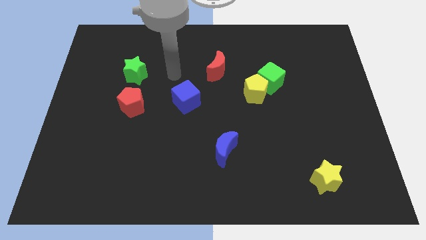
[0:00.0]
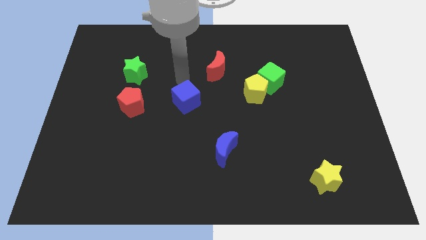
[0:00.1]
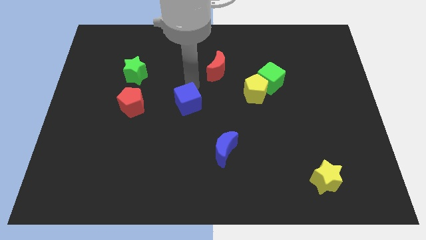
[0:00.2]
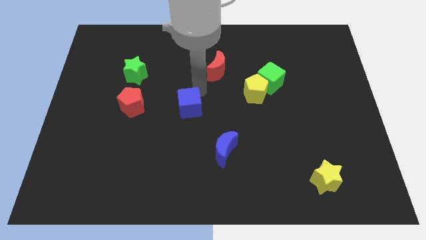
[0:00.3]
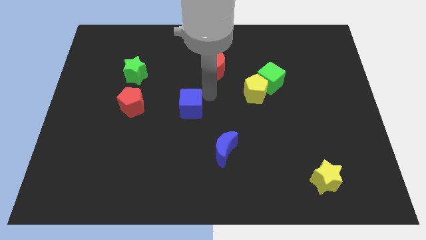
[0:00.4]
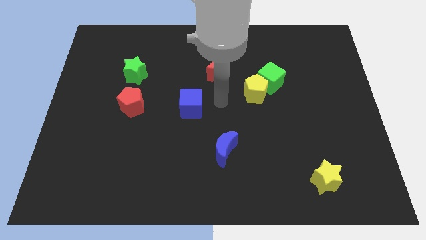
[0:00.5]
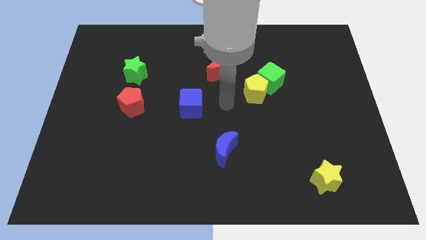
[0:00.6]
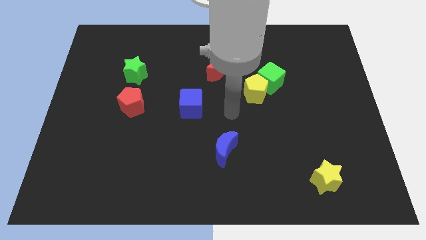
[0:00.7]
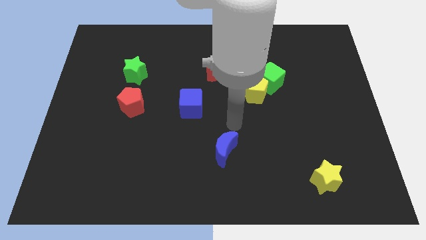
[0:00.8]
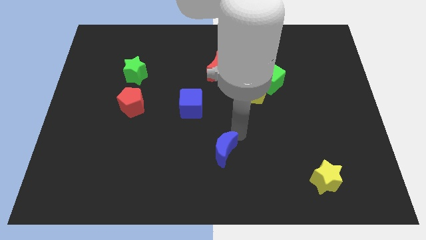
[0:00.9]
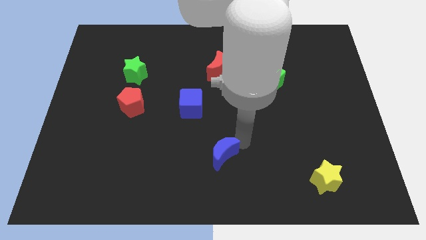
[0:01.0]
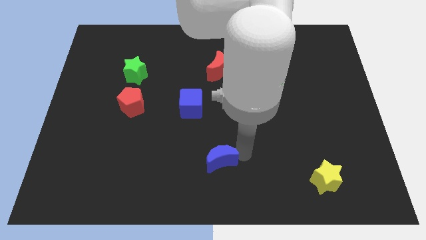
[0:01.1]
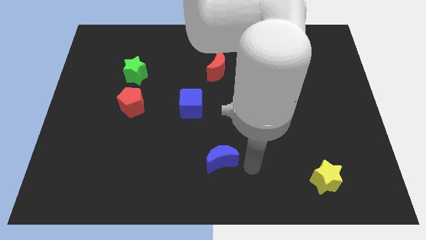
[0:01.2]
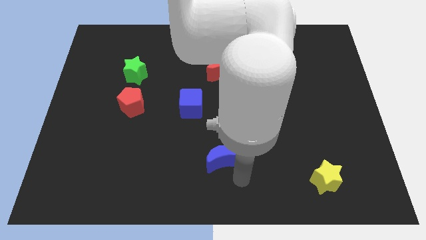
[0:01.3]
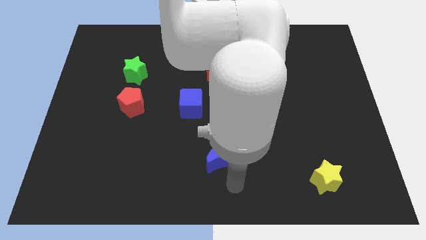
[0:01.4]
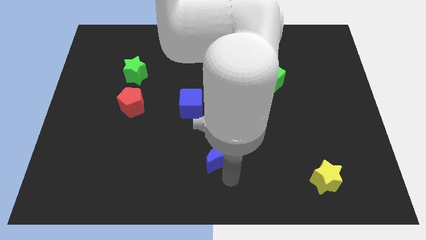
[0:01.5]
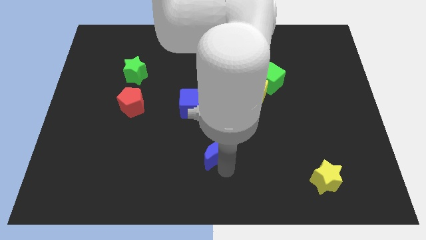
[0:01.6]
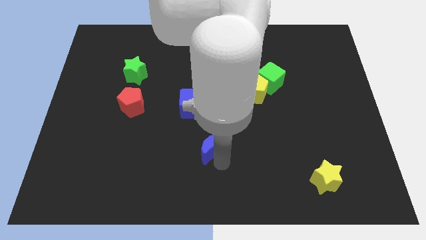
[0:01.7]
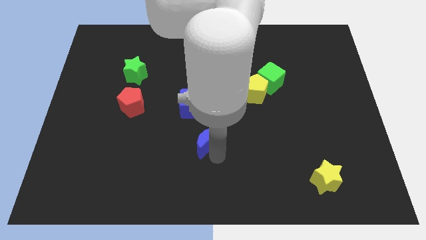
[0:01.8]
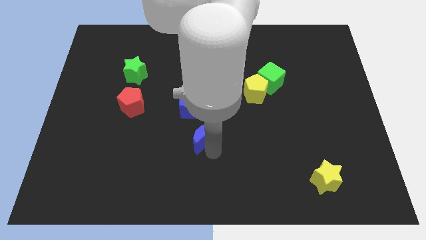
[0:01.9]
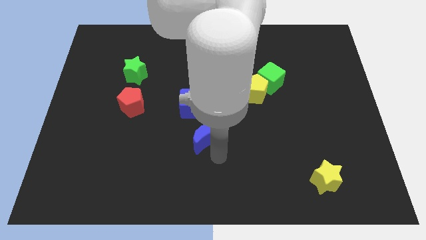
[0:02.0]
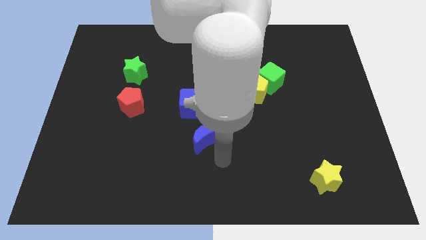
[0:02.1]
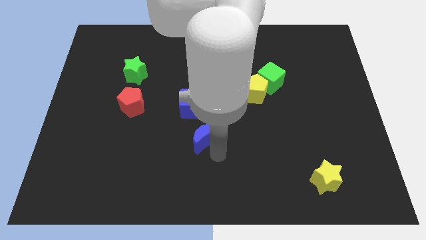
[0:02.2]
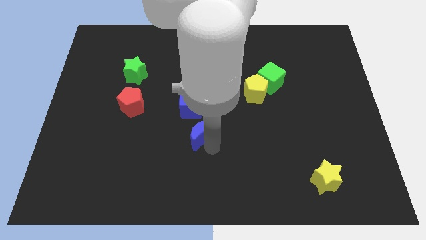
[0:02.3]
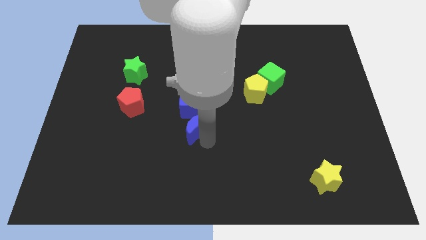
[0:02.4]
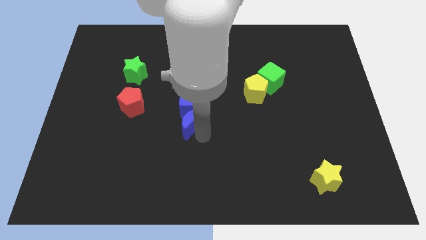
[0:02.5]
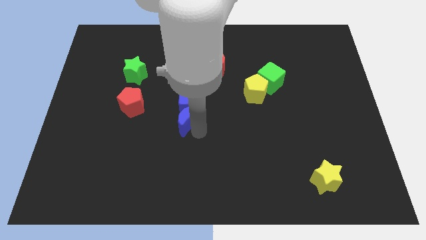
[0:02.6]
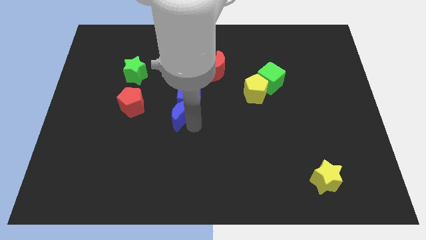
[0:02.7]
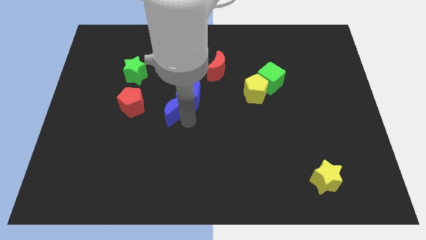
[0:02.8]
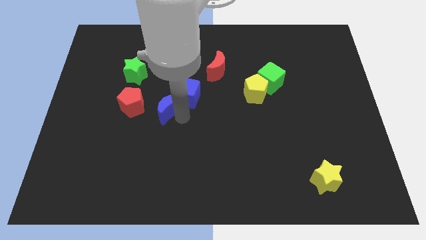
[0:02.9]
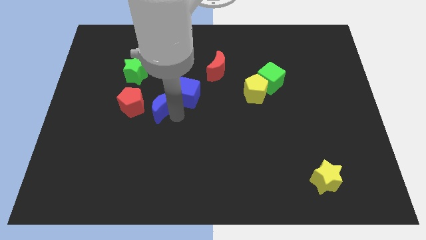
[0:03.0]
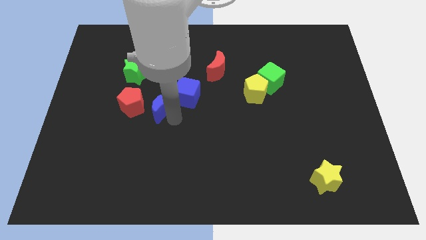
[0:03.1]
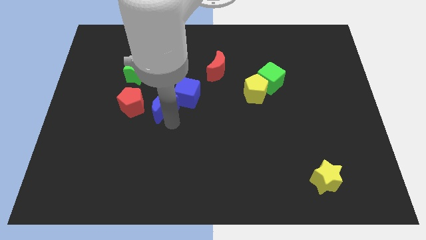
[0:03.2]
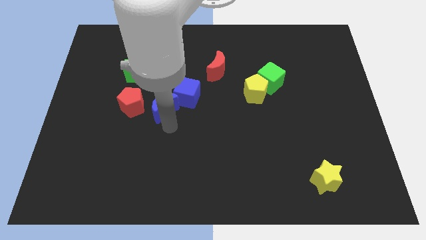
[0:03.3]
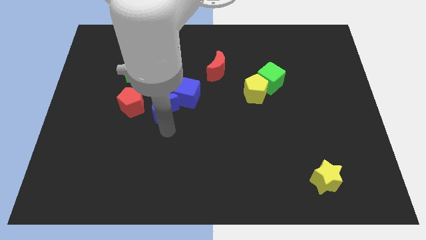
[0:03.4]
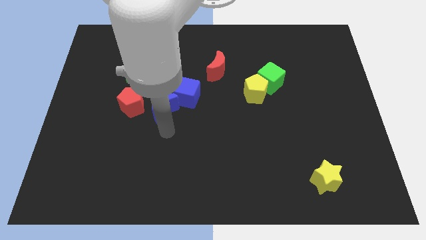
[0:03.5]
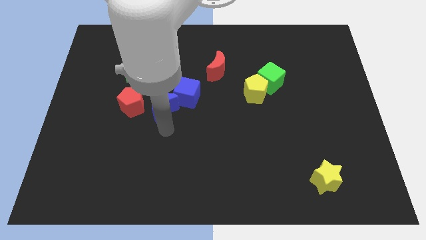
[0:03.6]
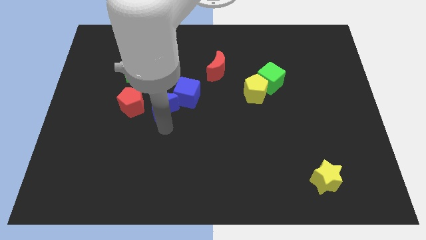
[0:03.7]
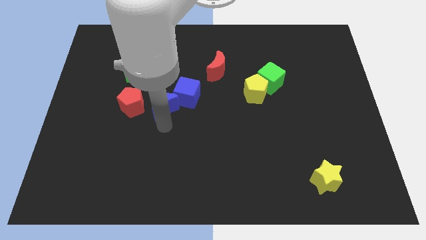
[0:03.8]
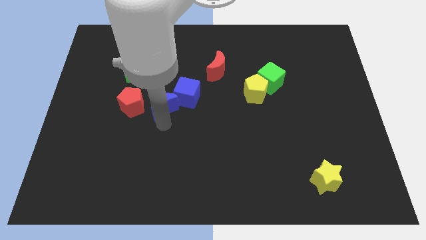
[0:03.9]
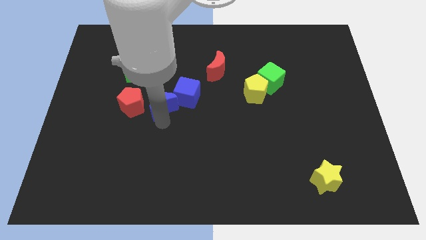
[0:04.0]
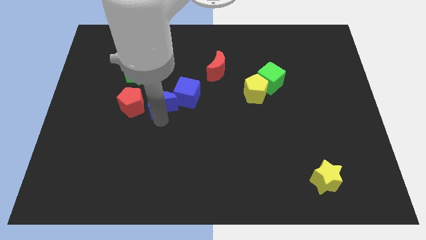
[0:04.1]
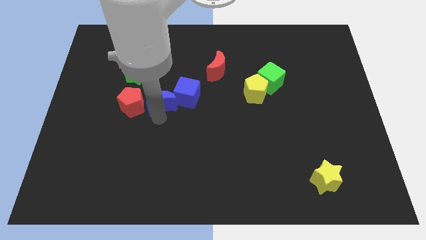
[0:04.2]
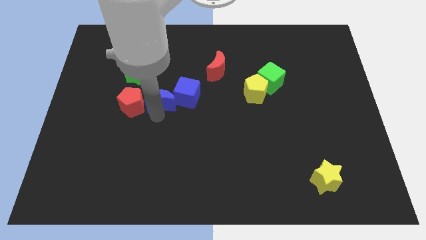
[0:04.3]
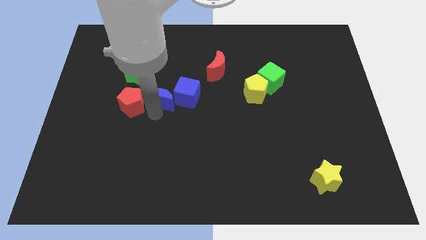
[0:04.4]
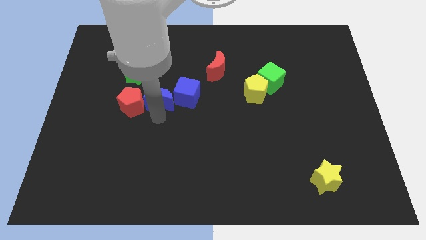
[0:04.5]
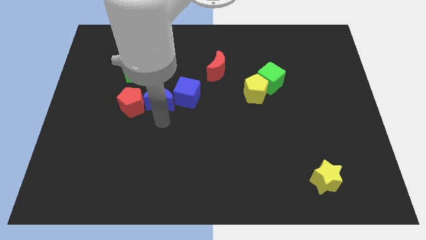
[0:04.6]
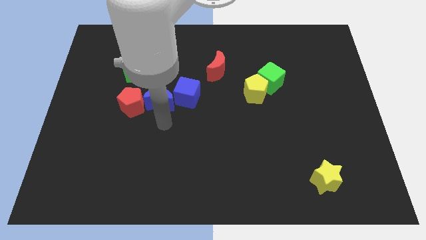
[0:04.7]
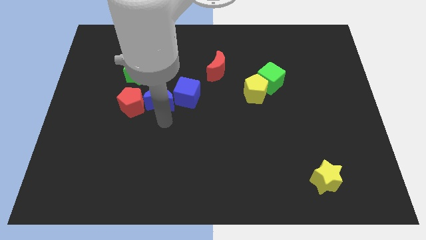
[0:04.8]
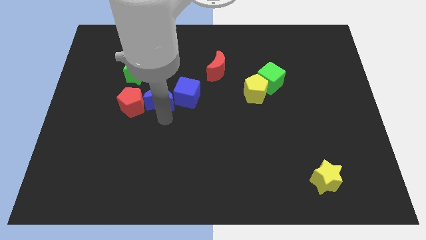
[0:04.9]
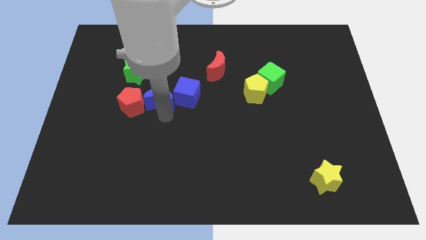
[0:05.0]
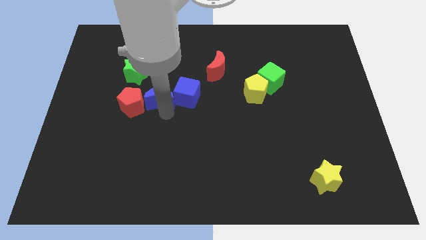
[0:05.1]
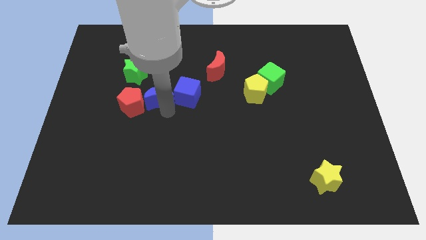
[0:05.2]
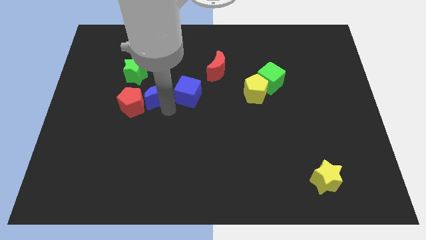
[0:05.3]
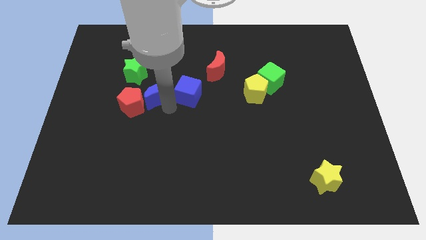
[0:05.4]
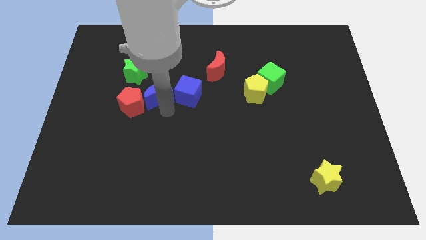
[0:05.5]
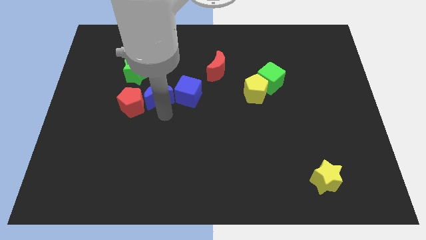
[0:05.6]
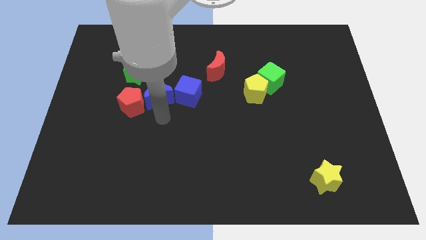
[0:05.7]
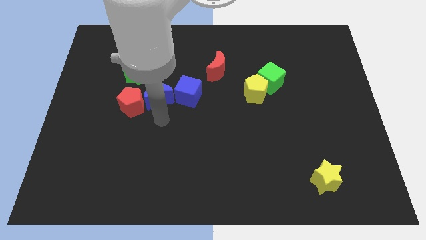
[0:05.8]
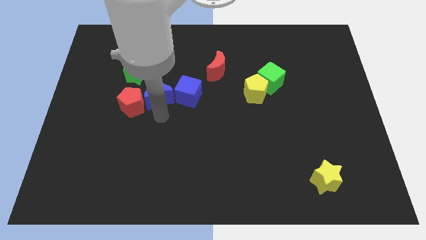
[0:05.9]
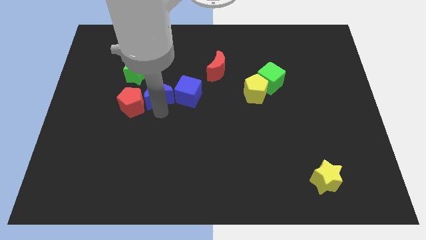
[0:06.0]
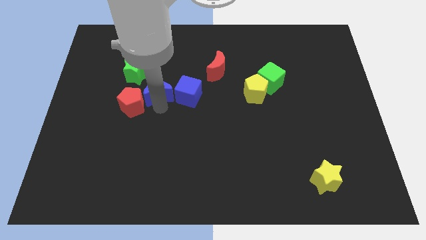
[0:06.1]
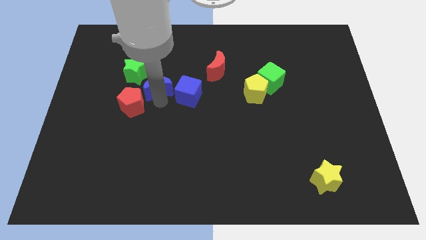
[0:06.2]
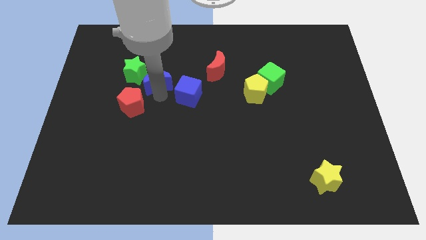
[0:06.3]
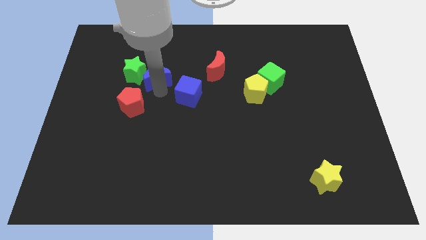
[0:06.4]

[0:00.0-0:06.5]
move the blue moon to the top side of the red pentagon

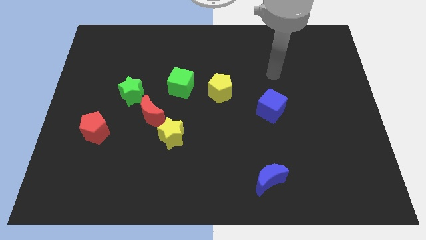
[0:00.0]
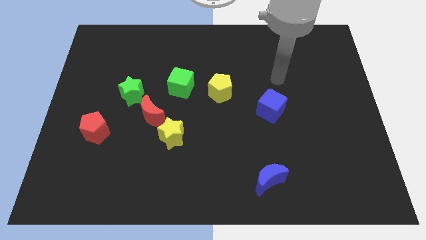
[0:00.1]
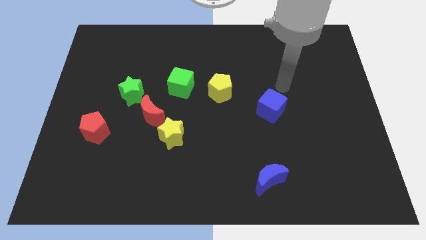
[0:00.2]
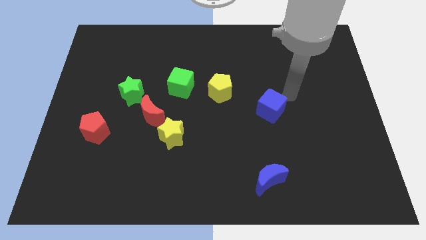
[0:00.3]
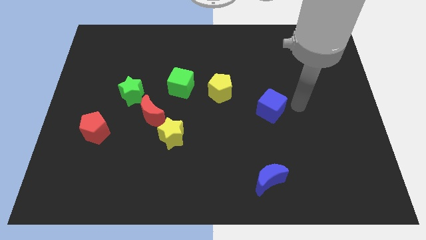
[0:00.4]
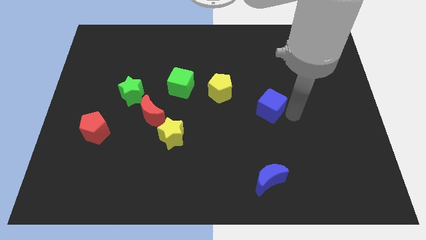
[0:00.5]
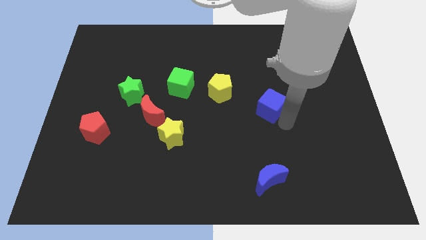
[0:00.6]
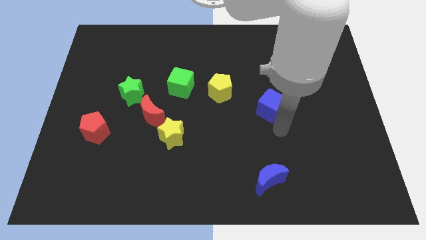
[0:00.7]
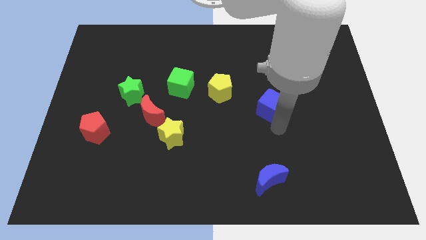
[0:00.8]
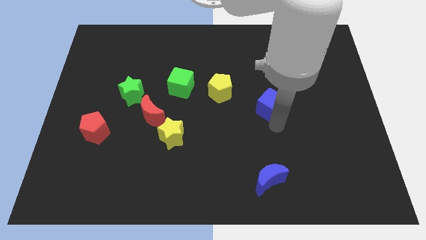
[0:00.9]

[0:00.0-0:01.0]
put the blue cube just right of the yellow pentagon
